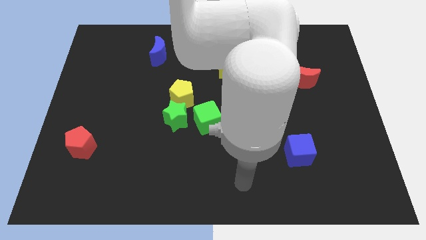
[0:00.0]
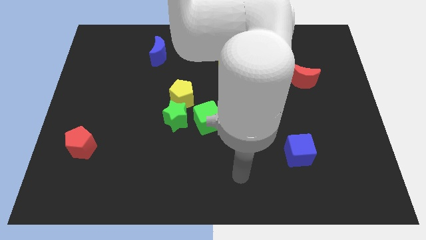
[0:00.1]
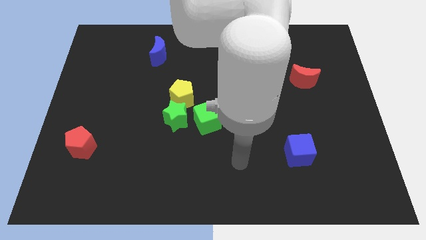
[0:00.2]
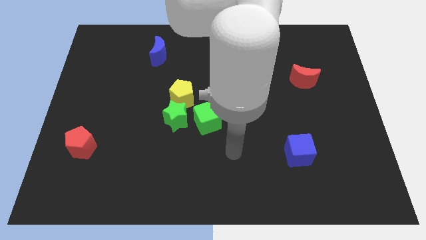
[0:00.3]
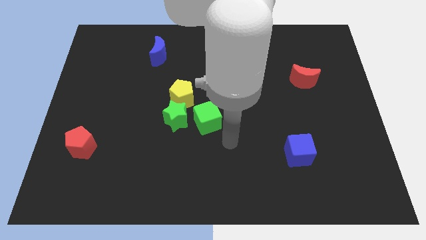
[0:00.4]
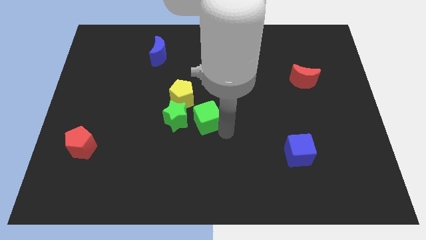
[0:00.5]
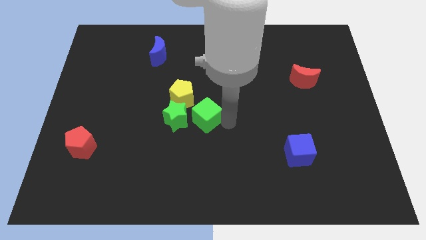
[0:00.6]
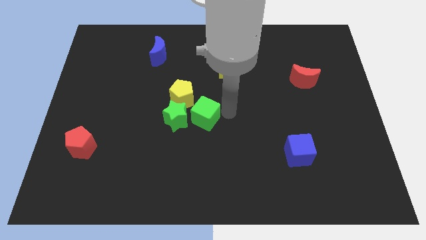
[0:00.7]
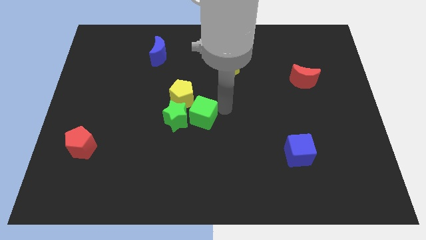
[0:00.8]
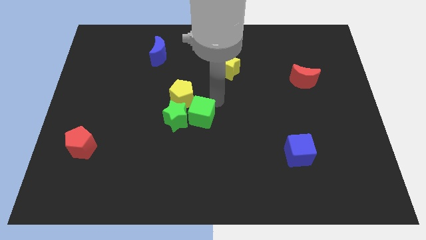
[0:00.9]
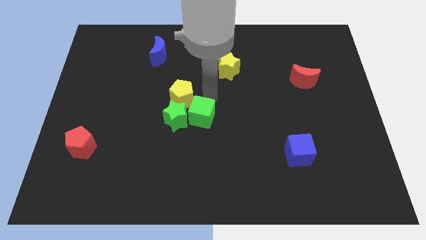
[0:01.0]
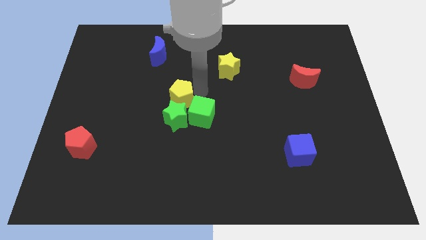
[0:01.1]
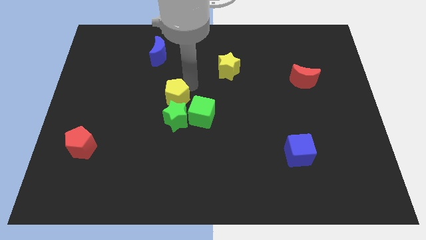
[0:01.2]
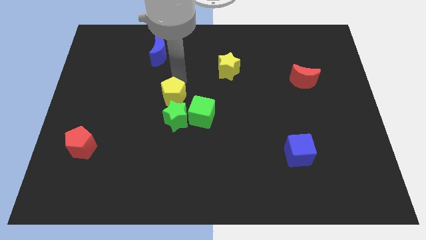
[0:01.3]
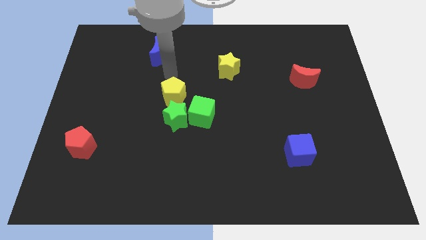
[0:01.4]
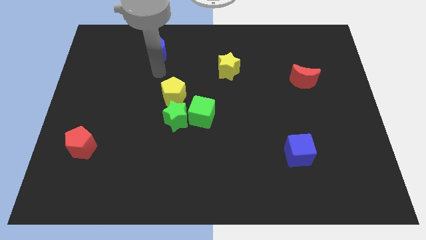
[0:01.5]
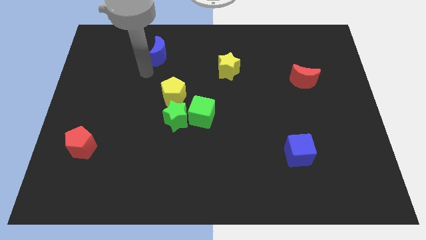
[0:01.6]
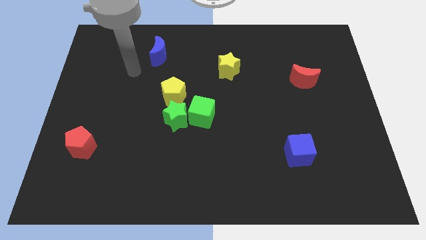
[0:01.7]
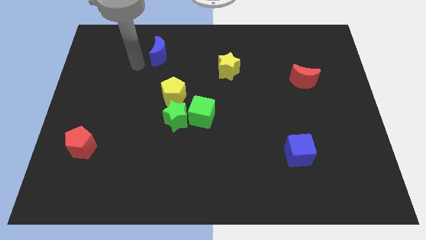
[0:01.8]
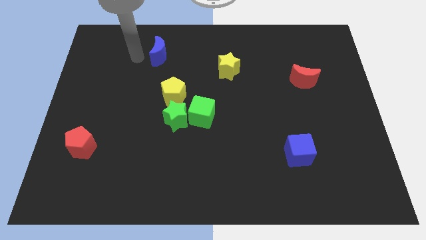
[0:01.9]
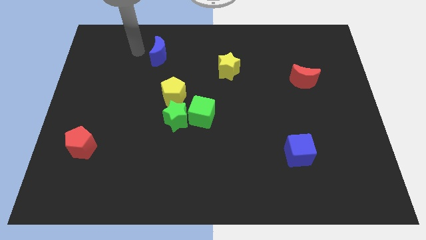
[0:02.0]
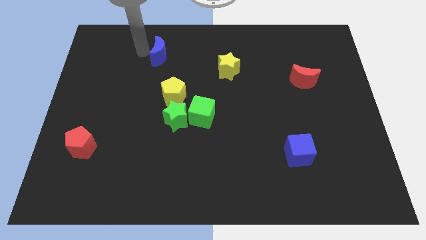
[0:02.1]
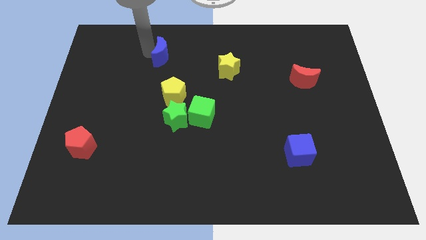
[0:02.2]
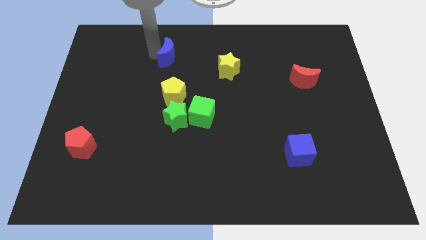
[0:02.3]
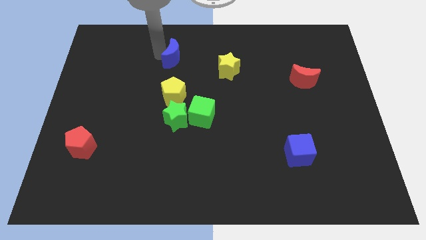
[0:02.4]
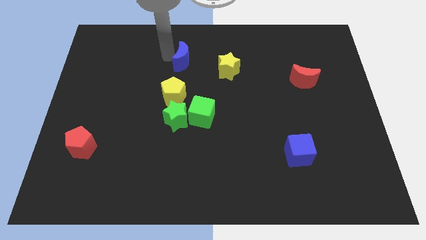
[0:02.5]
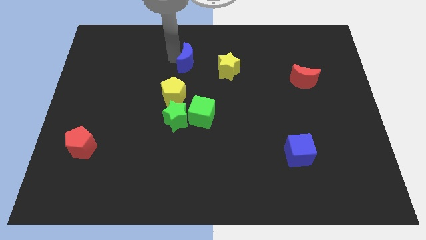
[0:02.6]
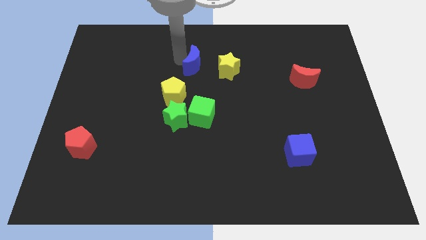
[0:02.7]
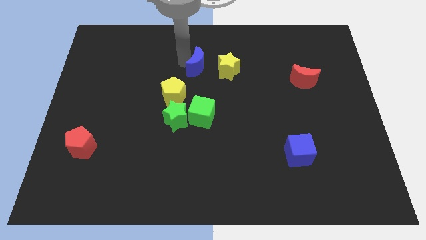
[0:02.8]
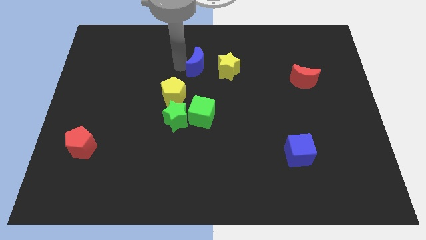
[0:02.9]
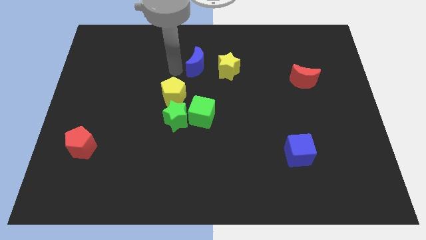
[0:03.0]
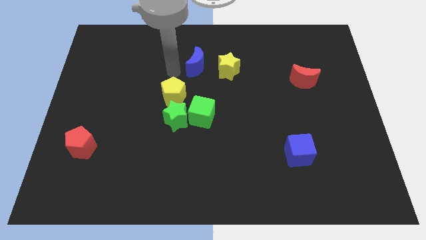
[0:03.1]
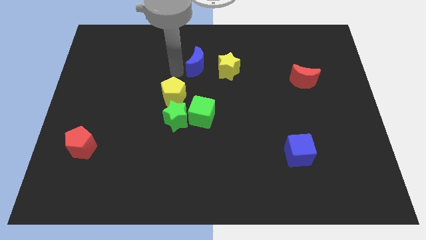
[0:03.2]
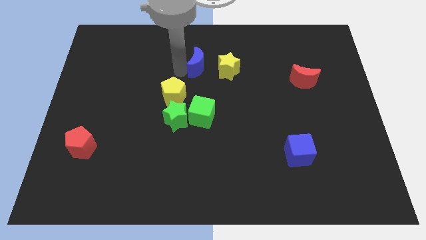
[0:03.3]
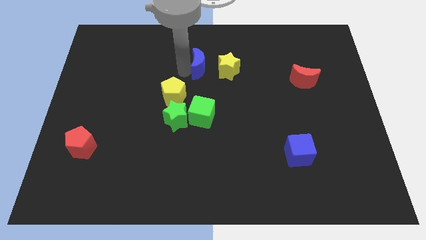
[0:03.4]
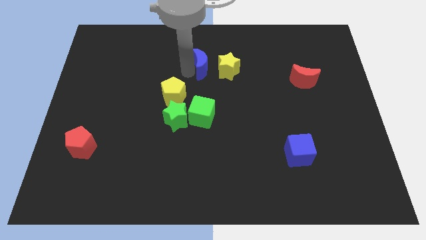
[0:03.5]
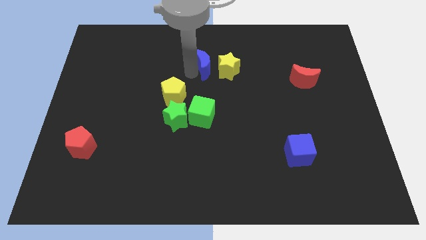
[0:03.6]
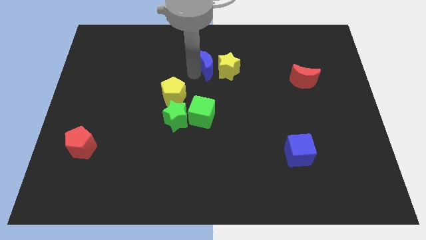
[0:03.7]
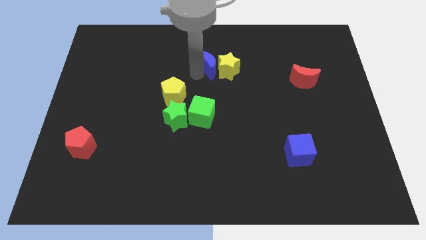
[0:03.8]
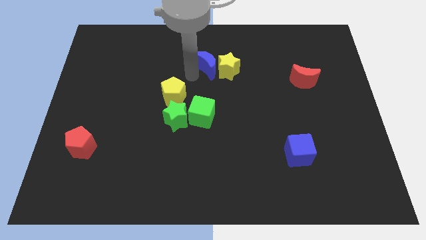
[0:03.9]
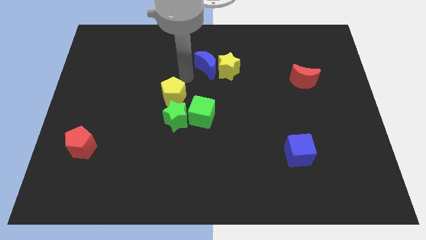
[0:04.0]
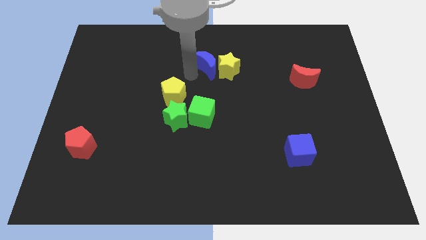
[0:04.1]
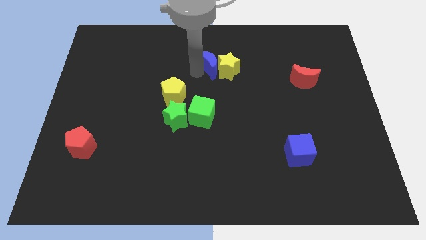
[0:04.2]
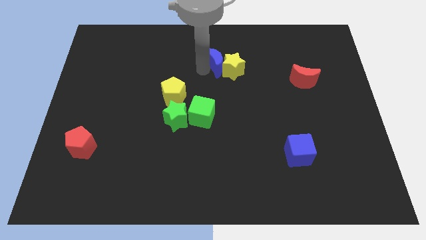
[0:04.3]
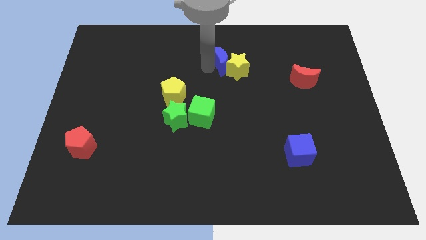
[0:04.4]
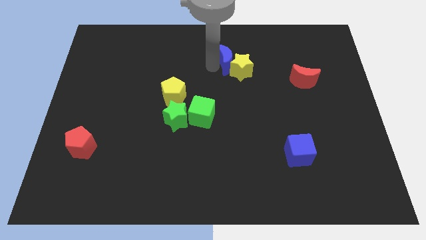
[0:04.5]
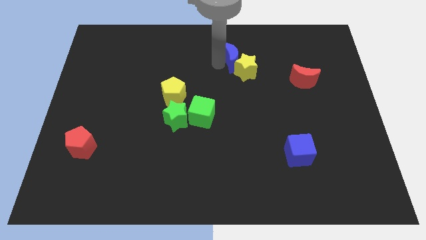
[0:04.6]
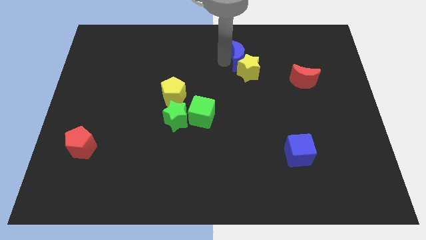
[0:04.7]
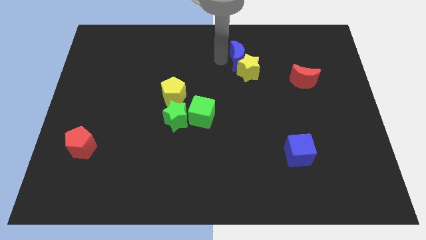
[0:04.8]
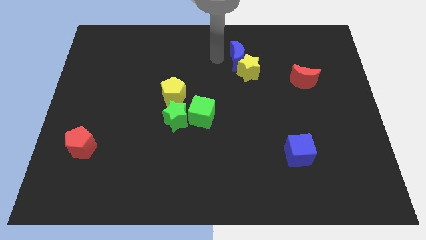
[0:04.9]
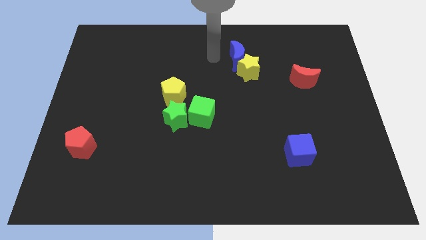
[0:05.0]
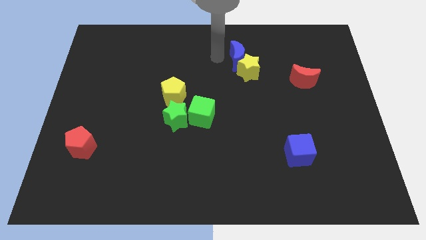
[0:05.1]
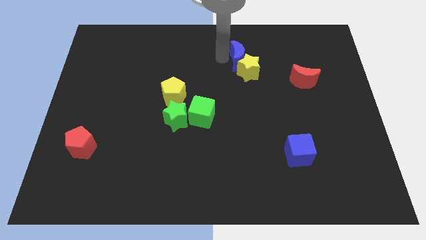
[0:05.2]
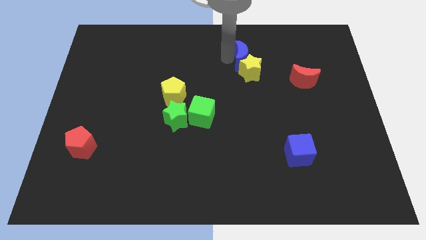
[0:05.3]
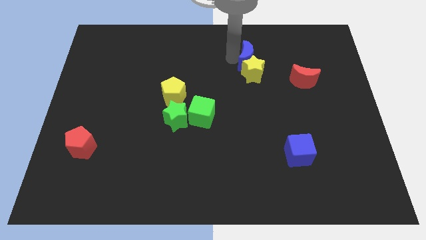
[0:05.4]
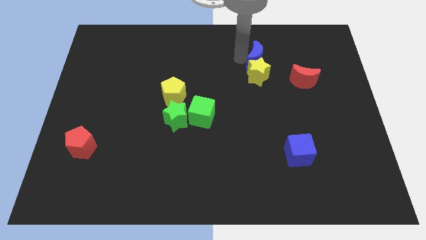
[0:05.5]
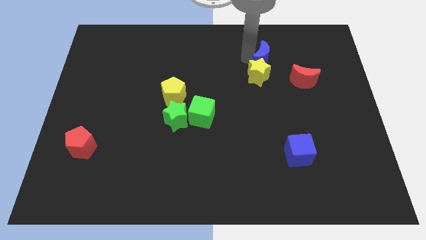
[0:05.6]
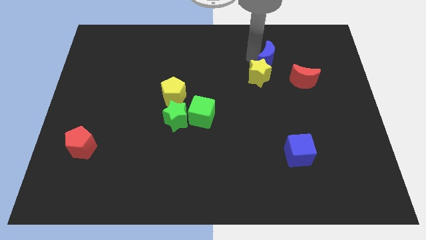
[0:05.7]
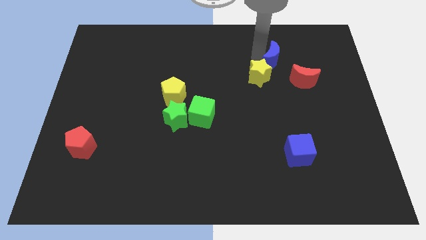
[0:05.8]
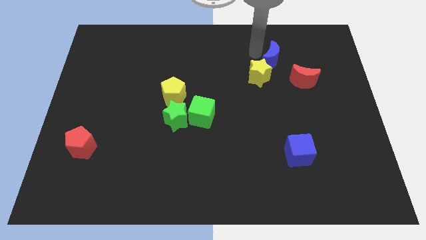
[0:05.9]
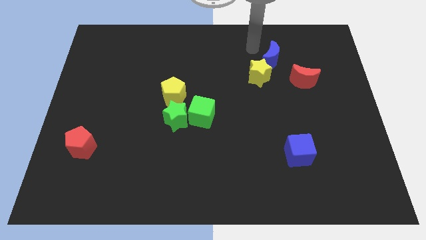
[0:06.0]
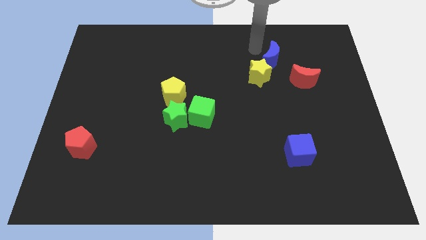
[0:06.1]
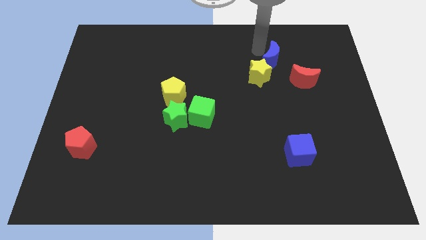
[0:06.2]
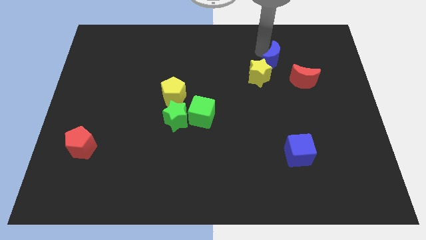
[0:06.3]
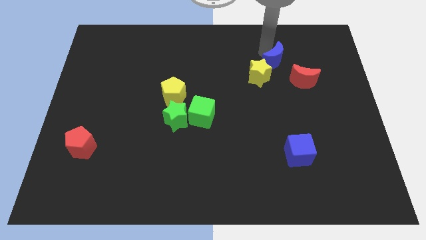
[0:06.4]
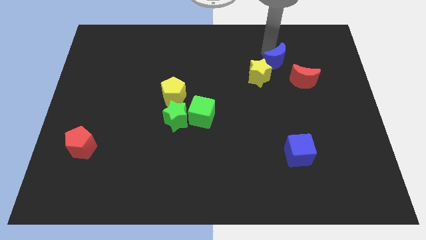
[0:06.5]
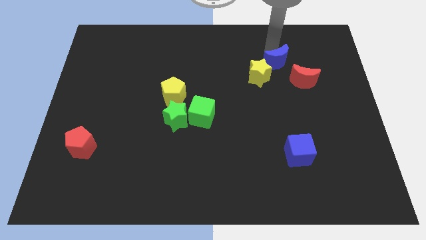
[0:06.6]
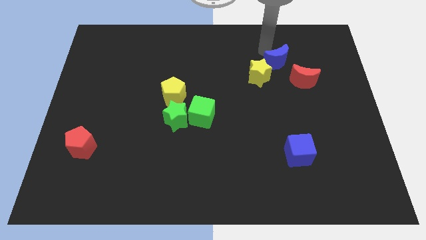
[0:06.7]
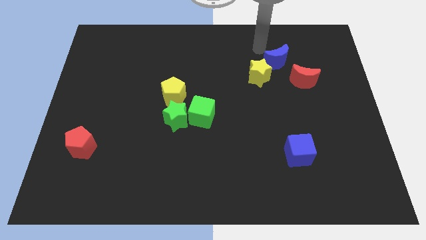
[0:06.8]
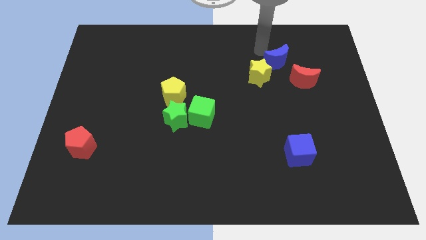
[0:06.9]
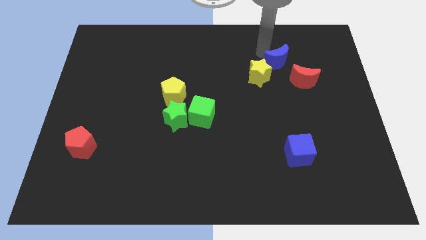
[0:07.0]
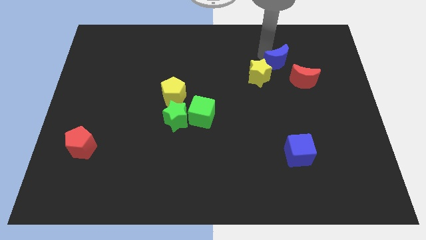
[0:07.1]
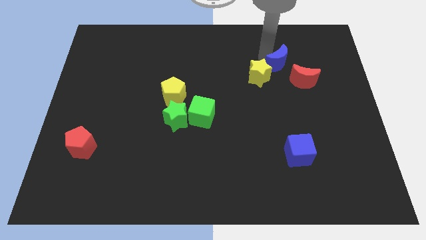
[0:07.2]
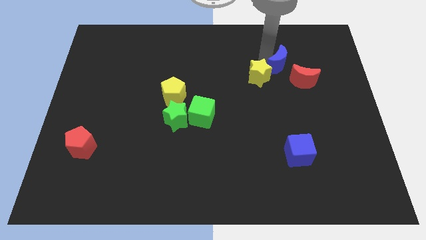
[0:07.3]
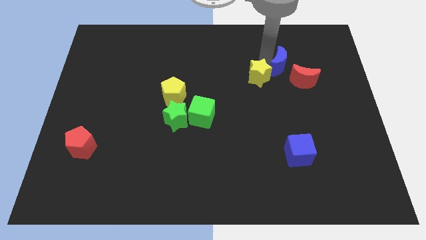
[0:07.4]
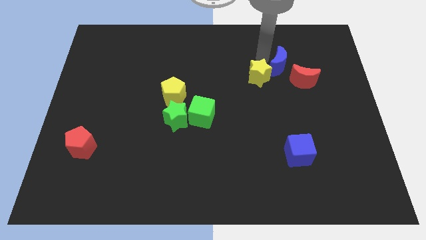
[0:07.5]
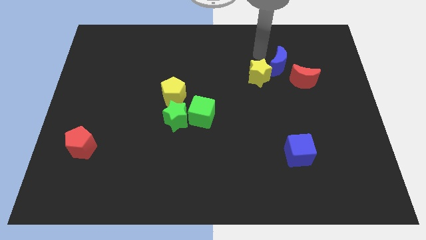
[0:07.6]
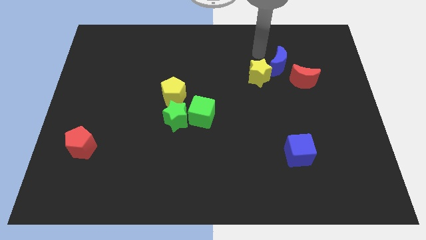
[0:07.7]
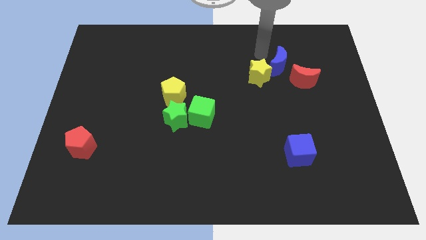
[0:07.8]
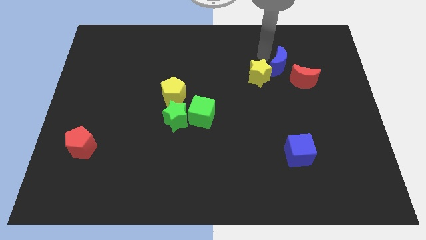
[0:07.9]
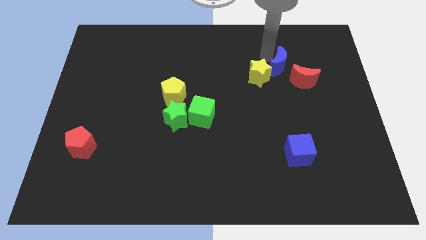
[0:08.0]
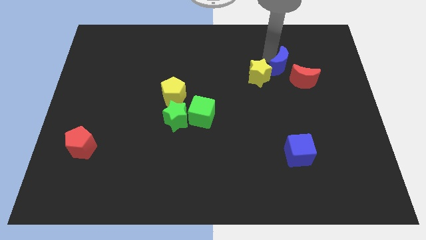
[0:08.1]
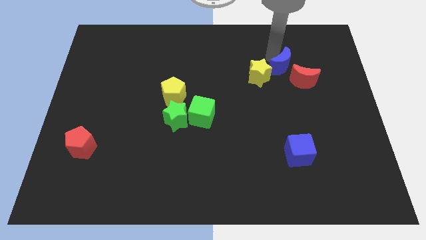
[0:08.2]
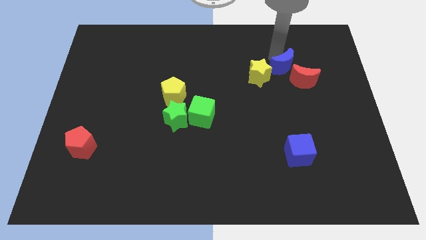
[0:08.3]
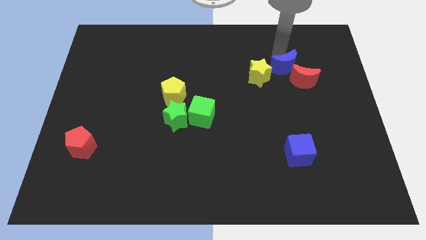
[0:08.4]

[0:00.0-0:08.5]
move the blue moon close to the red moon
